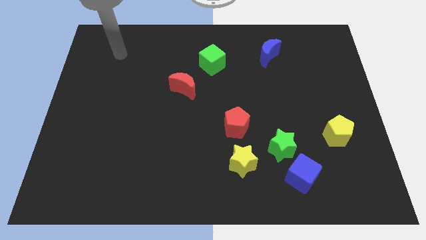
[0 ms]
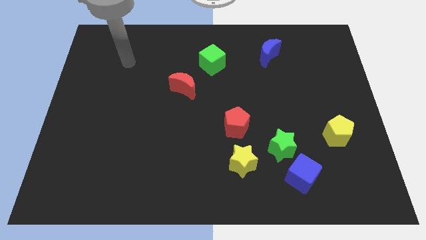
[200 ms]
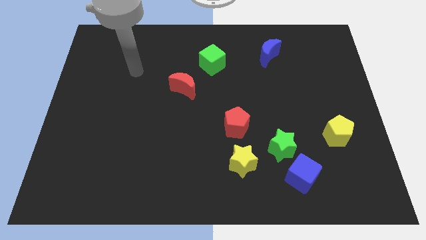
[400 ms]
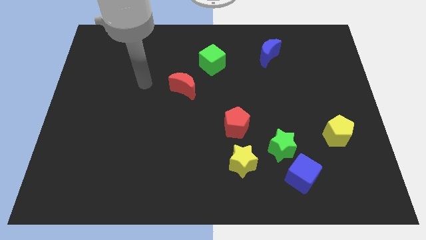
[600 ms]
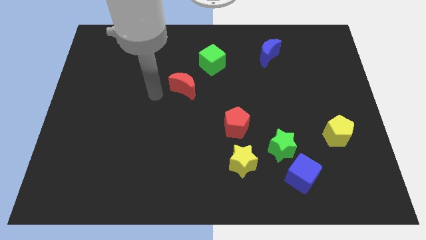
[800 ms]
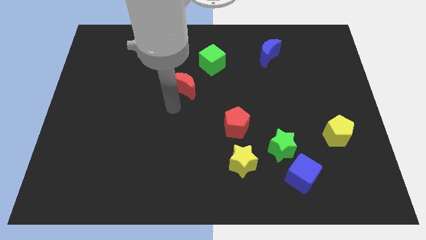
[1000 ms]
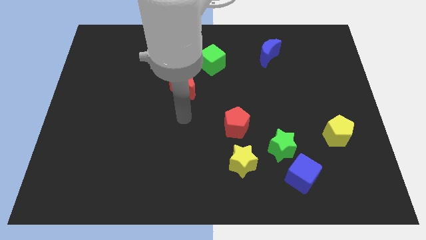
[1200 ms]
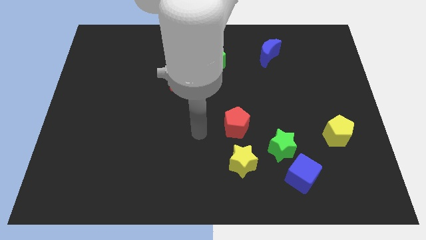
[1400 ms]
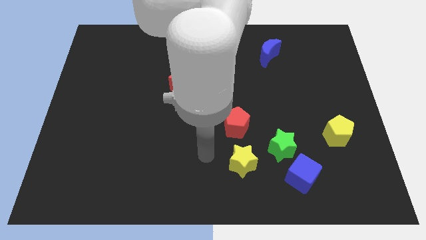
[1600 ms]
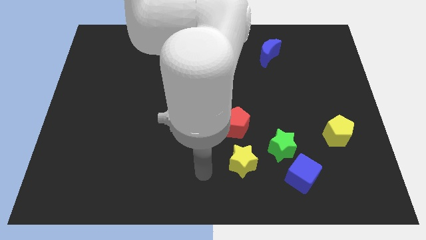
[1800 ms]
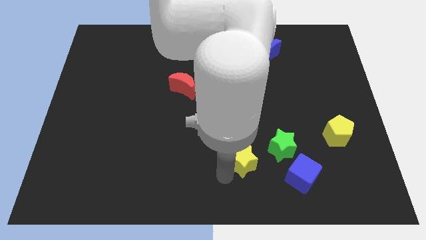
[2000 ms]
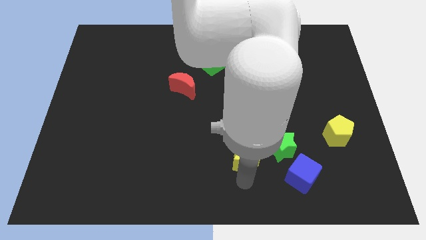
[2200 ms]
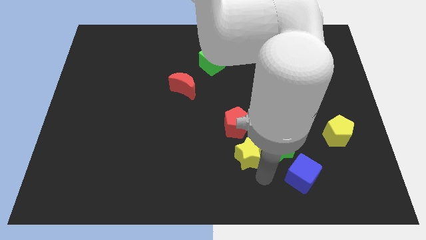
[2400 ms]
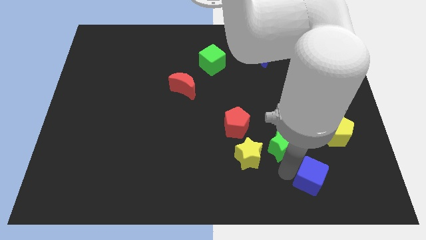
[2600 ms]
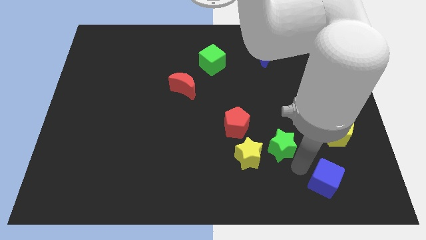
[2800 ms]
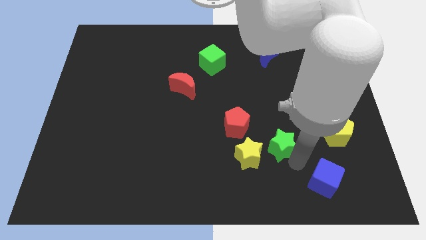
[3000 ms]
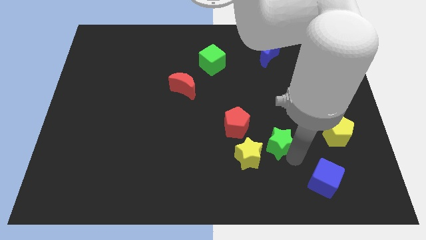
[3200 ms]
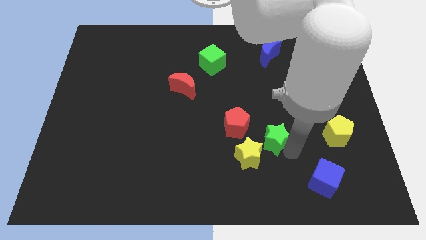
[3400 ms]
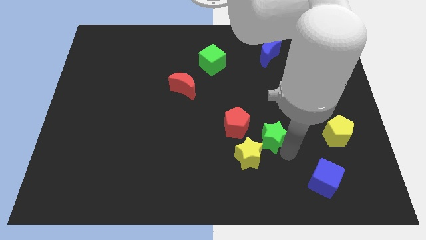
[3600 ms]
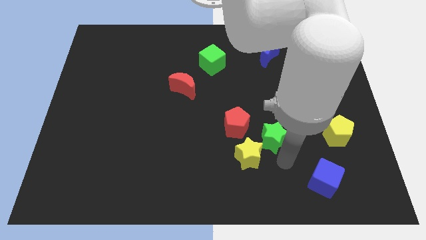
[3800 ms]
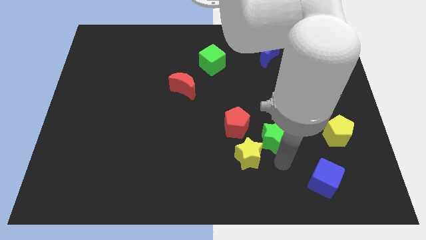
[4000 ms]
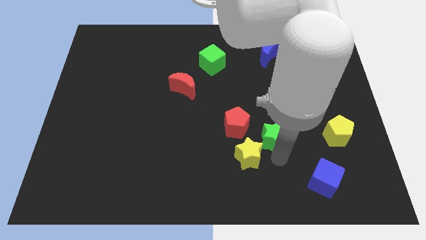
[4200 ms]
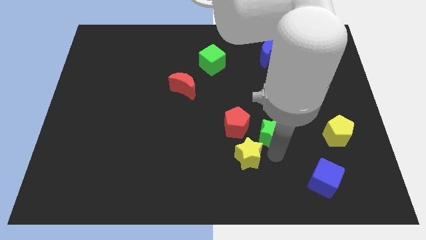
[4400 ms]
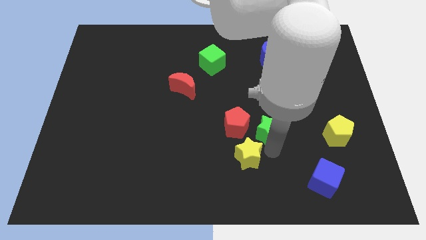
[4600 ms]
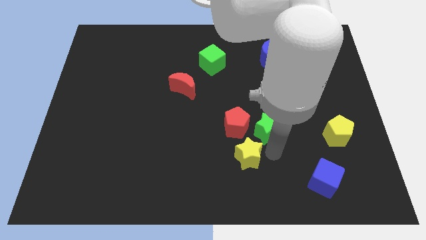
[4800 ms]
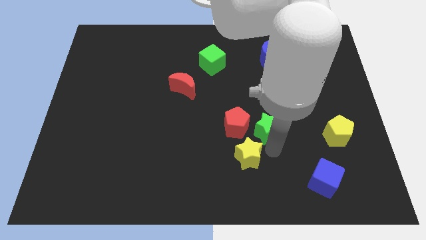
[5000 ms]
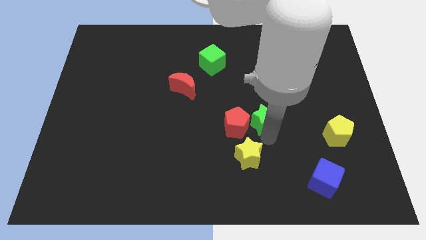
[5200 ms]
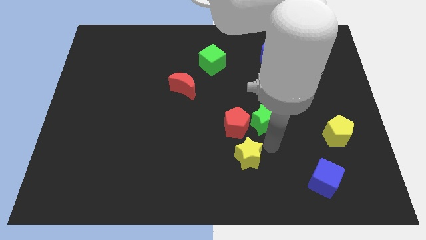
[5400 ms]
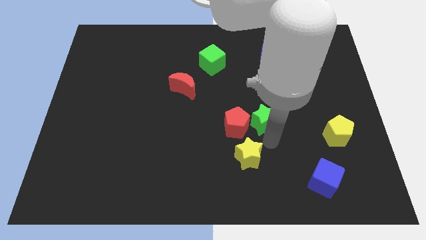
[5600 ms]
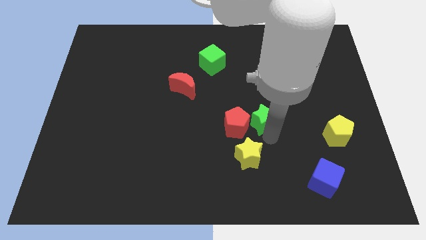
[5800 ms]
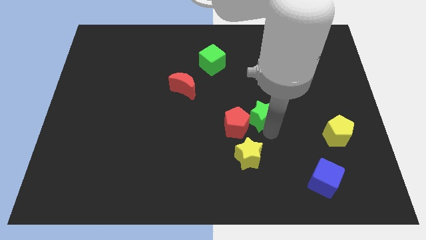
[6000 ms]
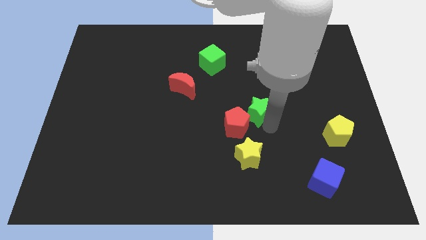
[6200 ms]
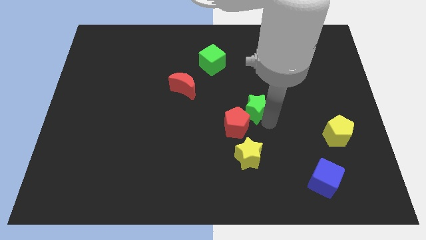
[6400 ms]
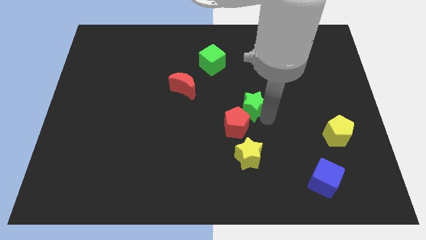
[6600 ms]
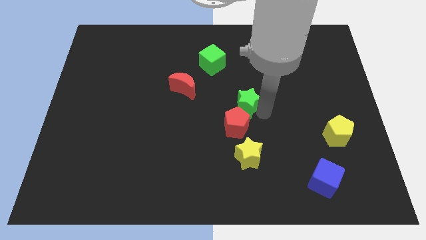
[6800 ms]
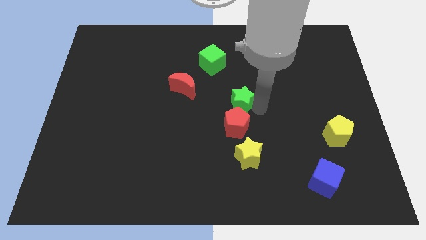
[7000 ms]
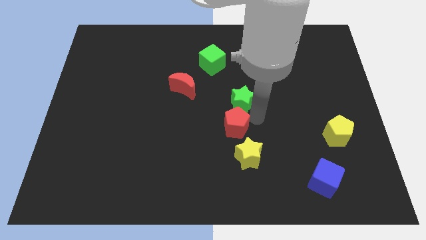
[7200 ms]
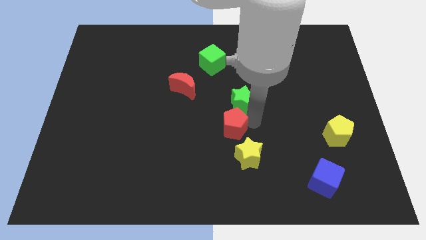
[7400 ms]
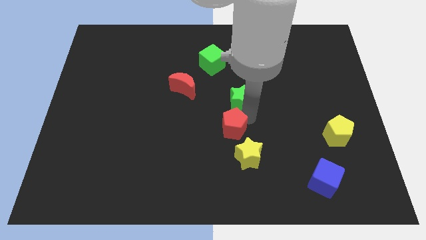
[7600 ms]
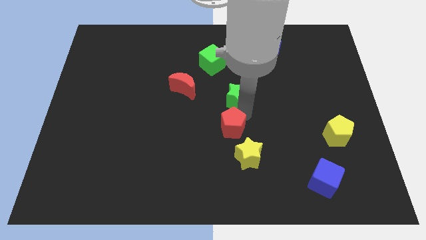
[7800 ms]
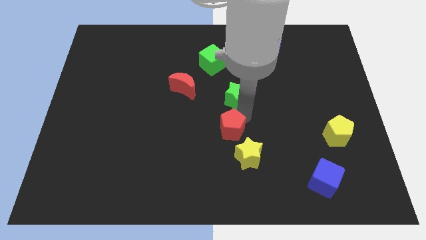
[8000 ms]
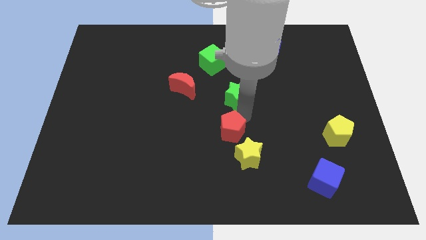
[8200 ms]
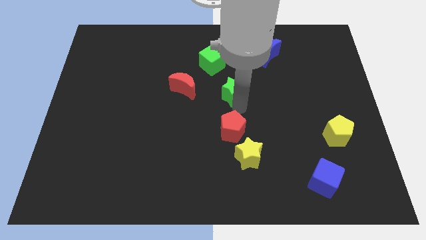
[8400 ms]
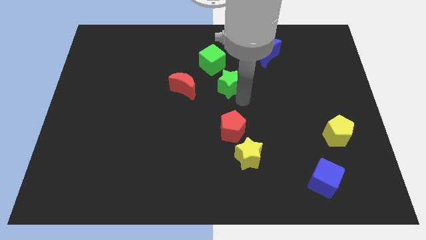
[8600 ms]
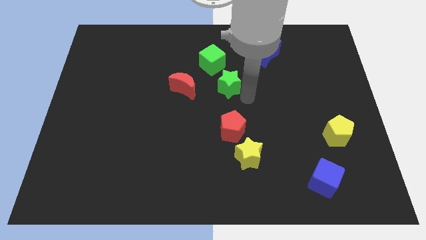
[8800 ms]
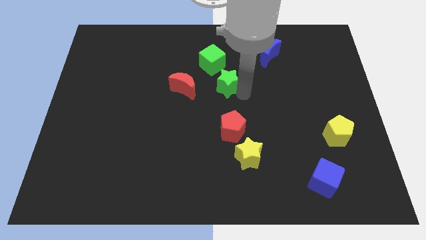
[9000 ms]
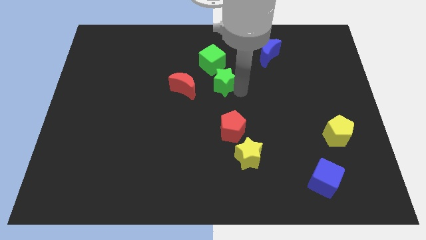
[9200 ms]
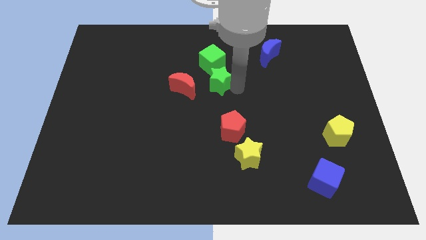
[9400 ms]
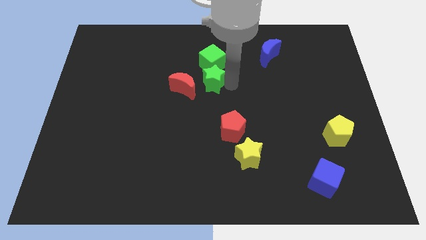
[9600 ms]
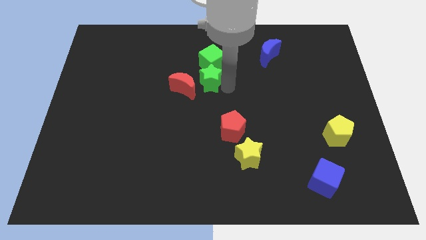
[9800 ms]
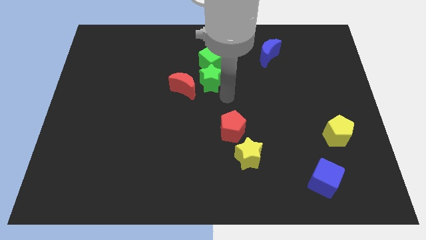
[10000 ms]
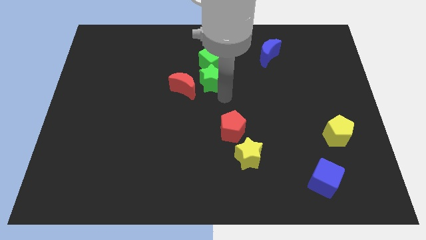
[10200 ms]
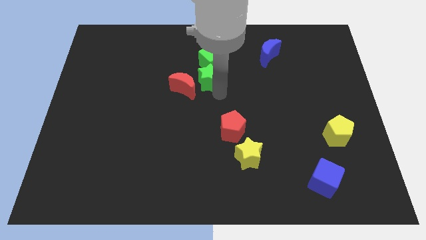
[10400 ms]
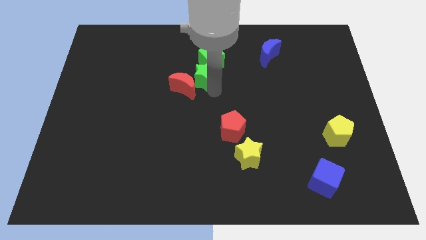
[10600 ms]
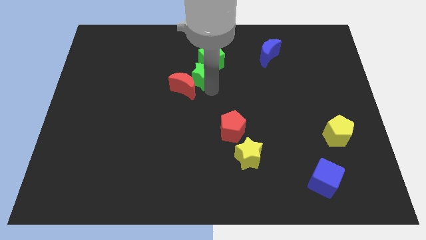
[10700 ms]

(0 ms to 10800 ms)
slide the green star to the top side of the red moon

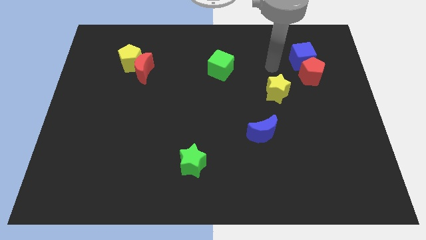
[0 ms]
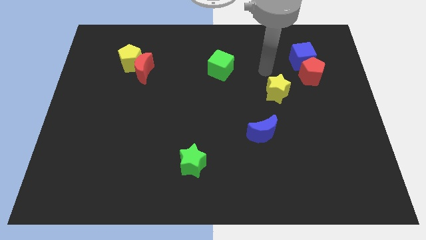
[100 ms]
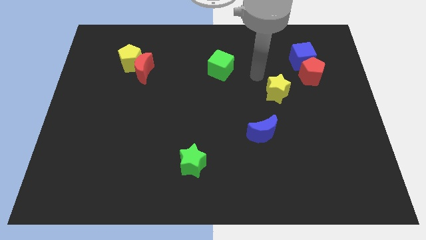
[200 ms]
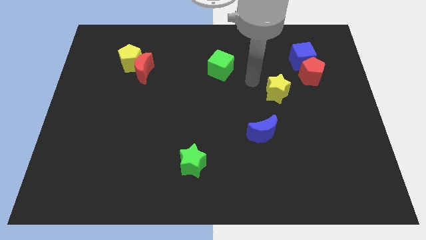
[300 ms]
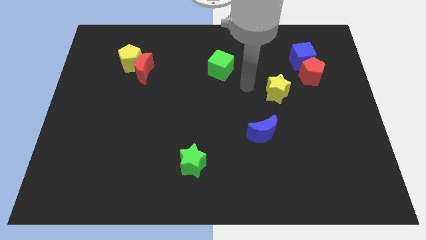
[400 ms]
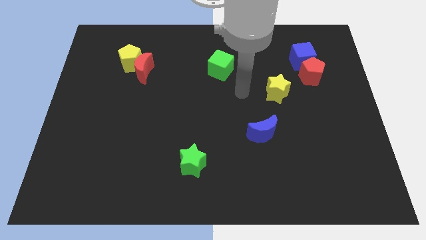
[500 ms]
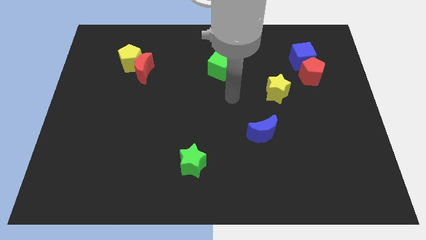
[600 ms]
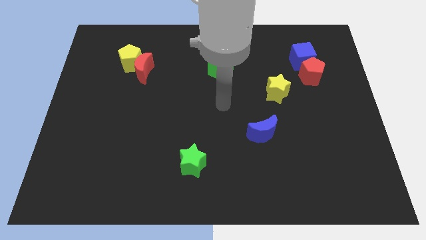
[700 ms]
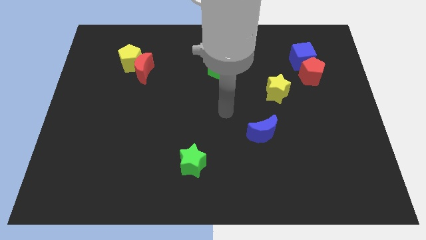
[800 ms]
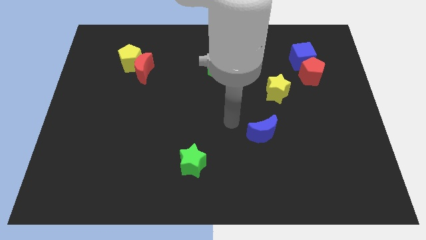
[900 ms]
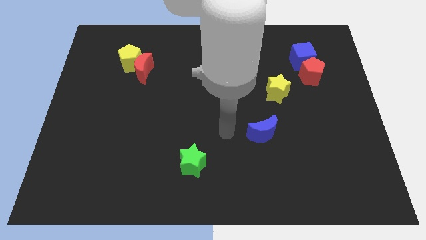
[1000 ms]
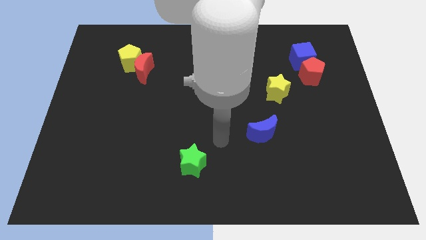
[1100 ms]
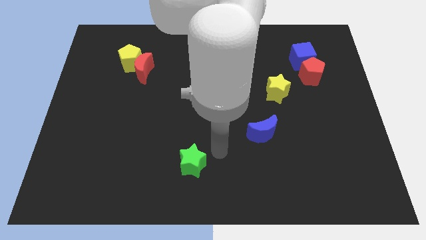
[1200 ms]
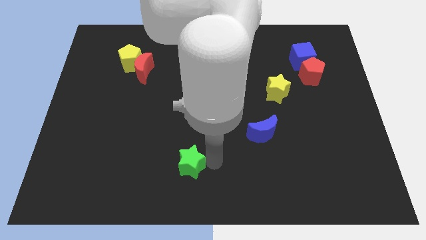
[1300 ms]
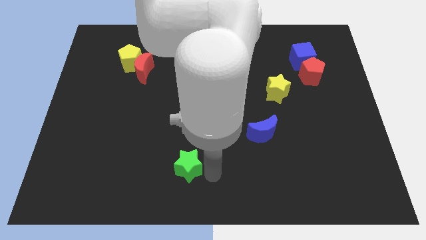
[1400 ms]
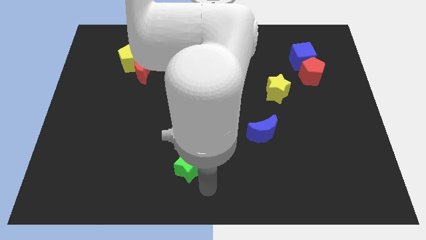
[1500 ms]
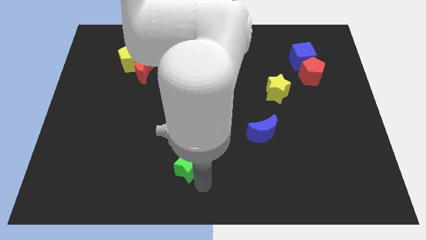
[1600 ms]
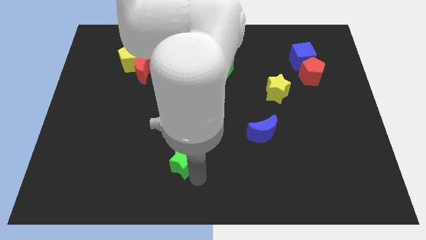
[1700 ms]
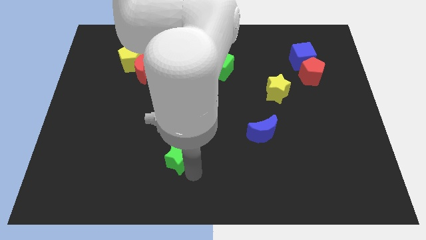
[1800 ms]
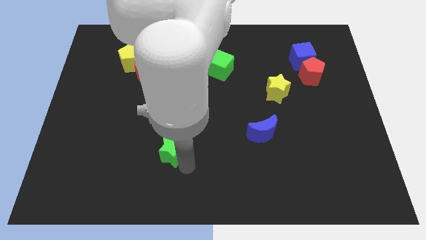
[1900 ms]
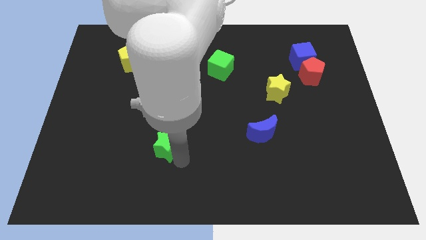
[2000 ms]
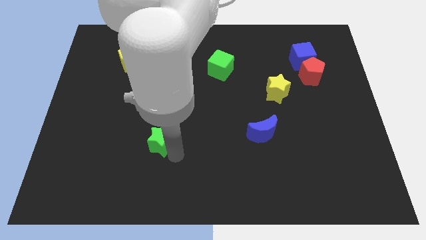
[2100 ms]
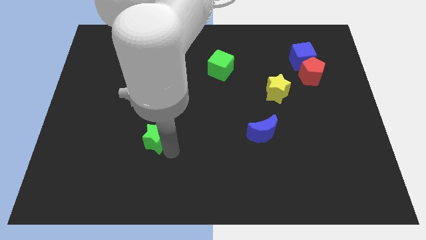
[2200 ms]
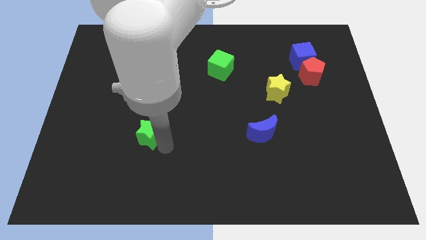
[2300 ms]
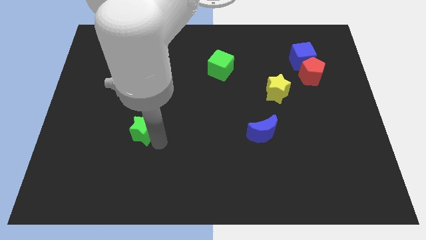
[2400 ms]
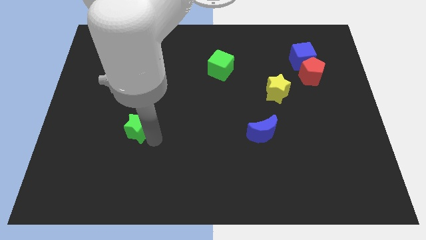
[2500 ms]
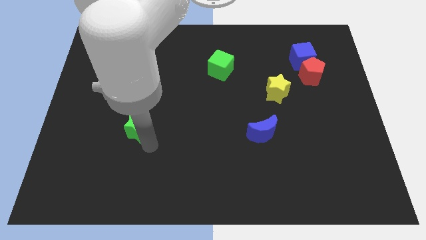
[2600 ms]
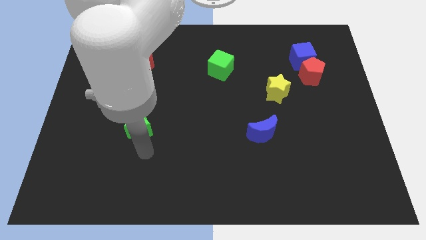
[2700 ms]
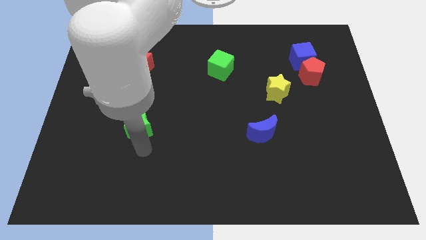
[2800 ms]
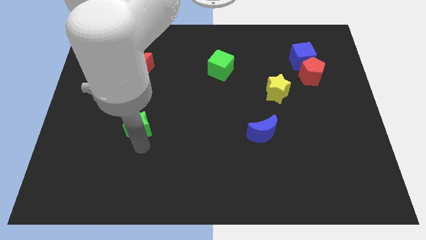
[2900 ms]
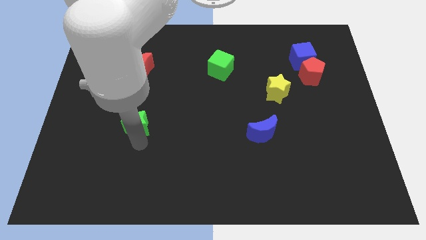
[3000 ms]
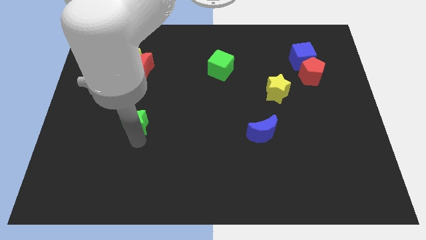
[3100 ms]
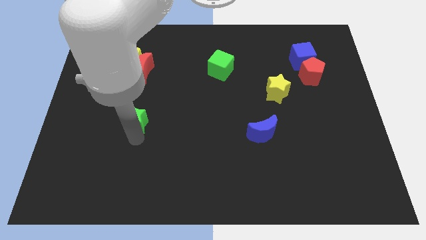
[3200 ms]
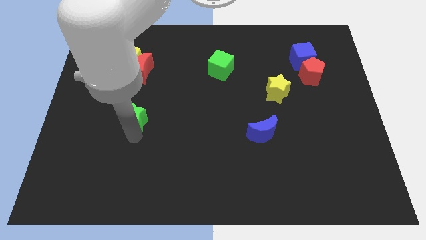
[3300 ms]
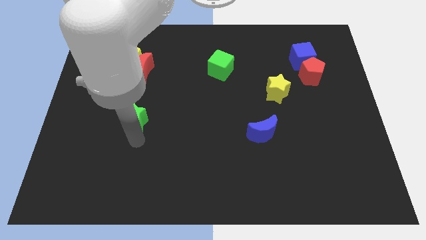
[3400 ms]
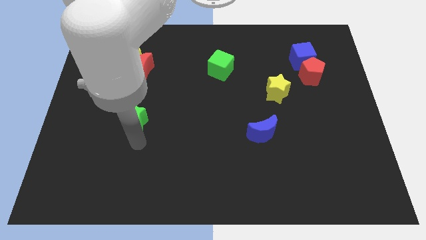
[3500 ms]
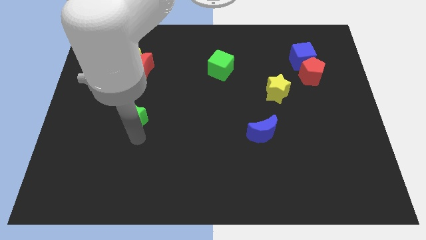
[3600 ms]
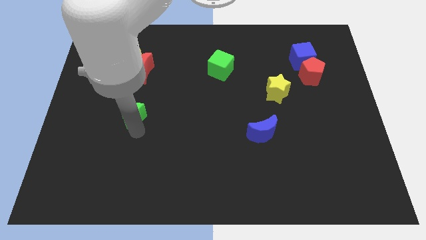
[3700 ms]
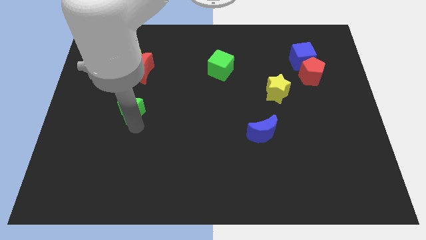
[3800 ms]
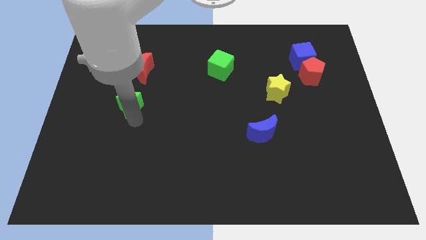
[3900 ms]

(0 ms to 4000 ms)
put the green star below the yellow pentagon
